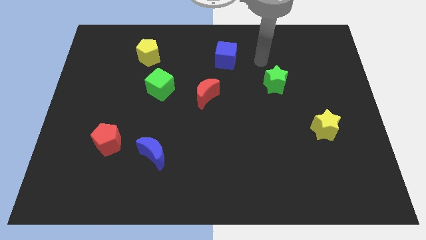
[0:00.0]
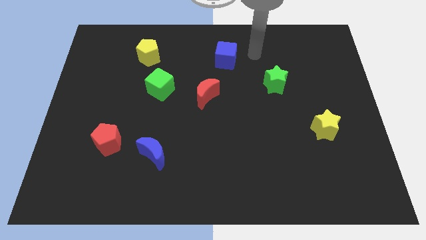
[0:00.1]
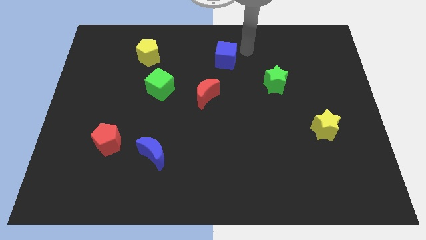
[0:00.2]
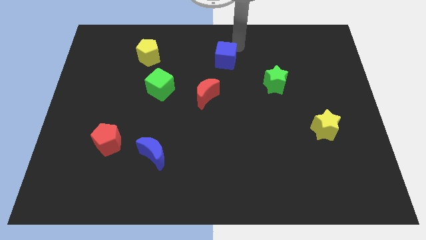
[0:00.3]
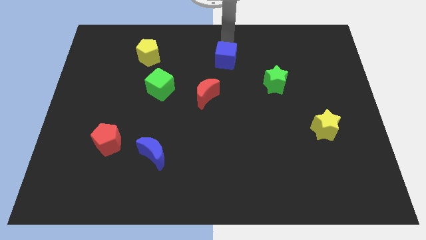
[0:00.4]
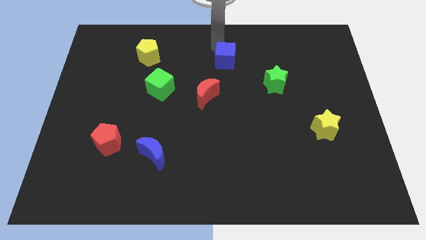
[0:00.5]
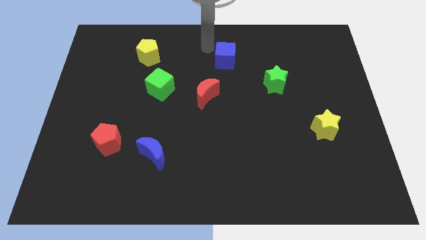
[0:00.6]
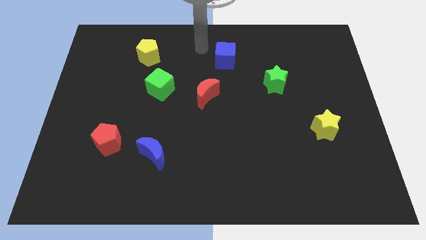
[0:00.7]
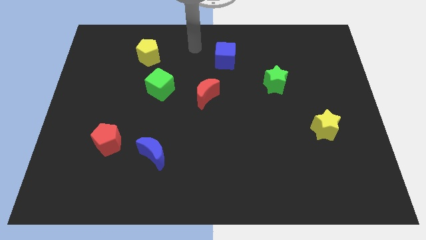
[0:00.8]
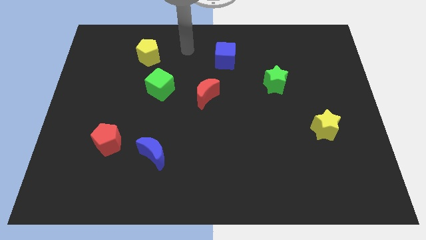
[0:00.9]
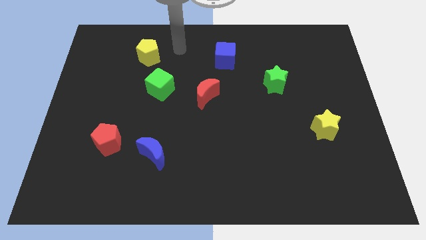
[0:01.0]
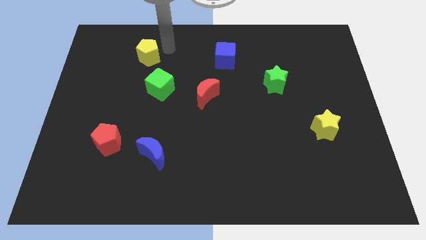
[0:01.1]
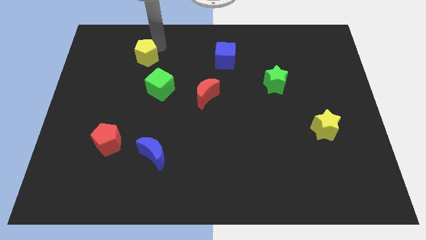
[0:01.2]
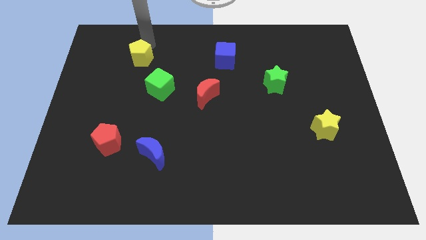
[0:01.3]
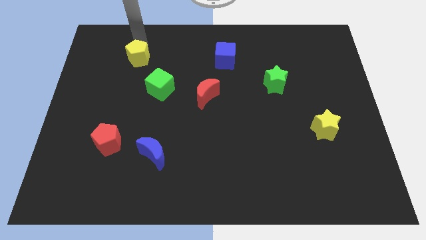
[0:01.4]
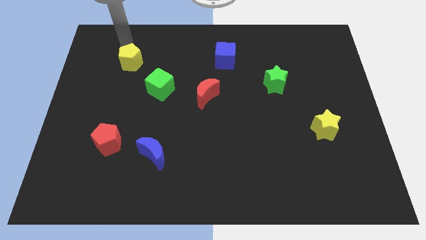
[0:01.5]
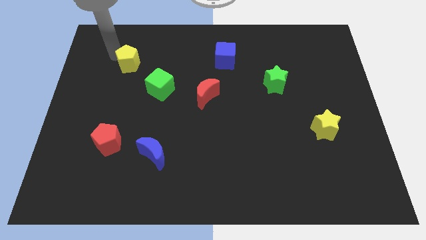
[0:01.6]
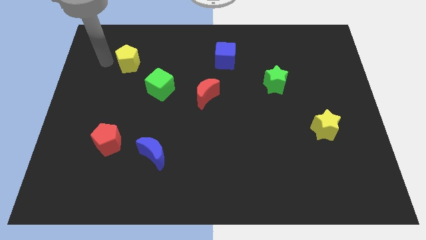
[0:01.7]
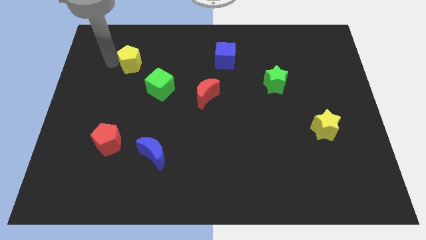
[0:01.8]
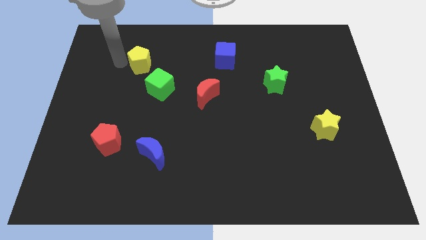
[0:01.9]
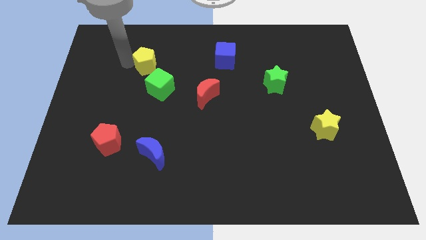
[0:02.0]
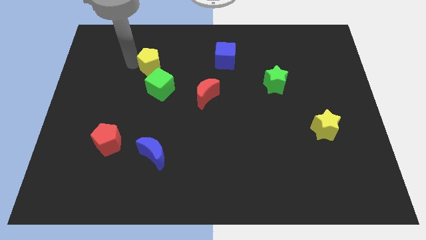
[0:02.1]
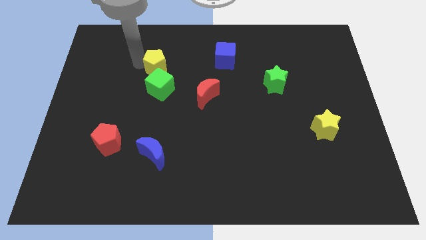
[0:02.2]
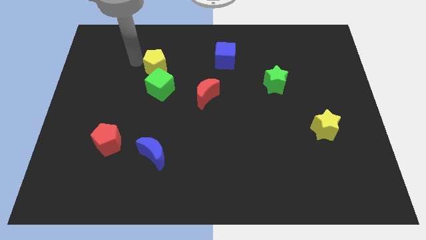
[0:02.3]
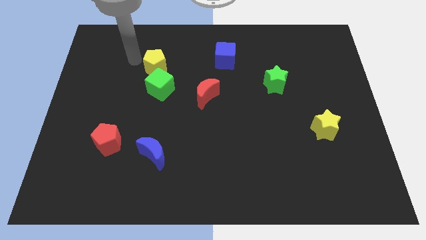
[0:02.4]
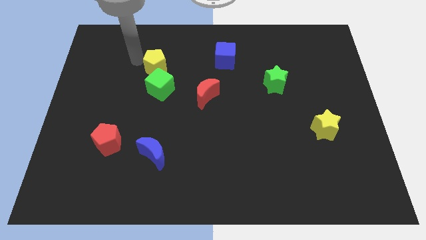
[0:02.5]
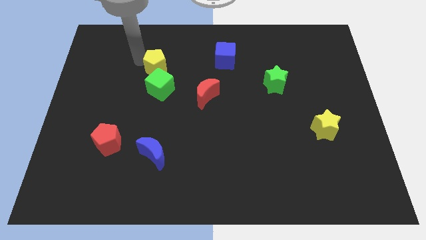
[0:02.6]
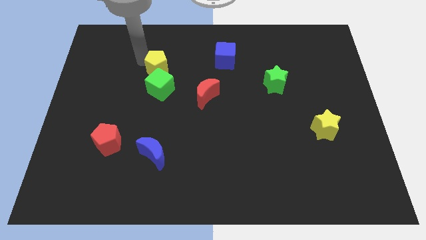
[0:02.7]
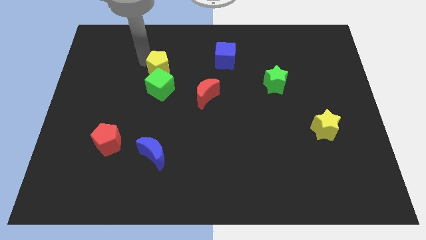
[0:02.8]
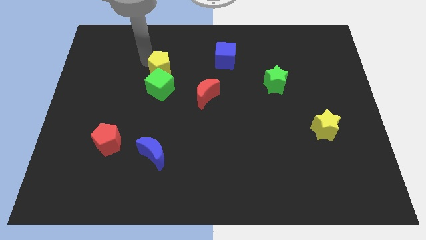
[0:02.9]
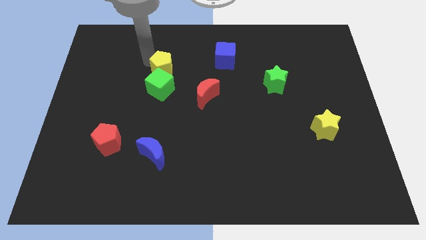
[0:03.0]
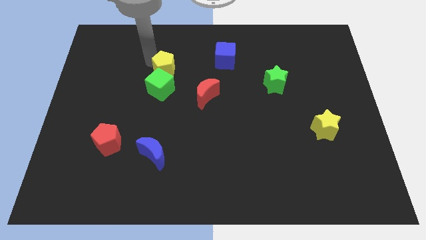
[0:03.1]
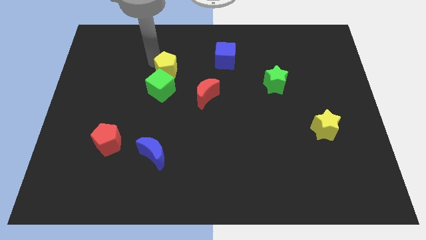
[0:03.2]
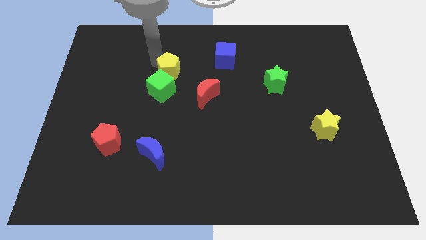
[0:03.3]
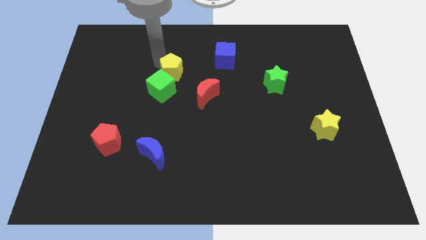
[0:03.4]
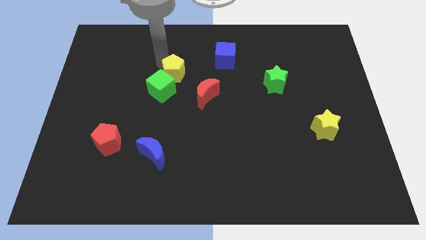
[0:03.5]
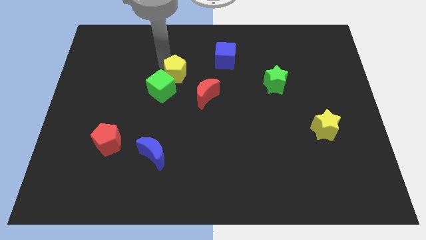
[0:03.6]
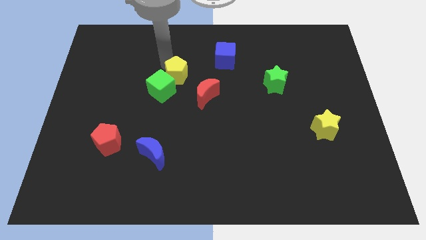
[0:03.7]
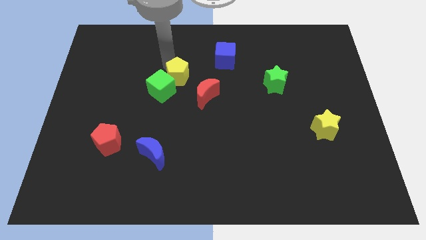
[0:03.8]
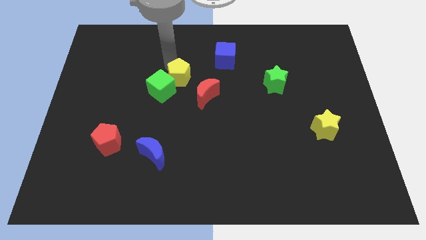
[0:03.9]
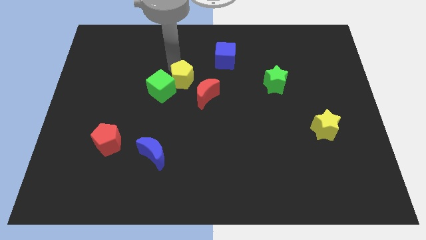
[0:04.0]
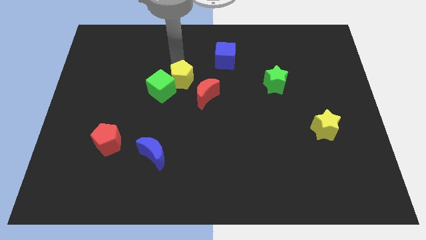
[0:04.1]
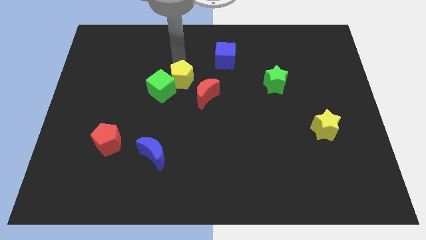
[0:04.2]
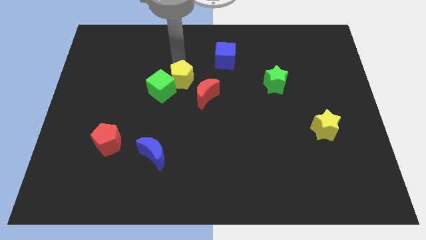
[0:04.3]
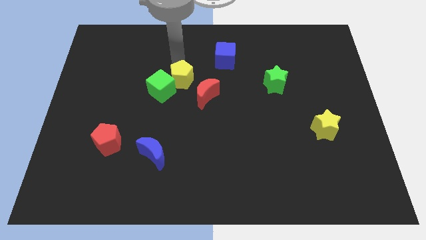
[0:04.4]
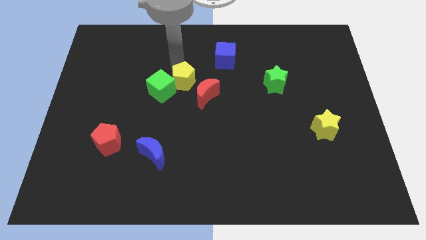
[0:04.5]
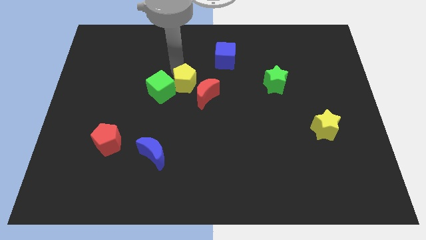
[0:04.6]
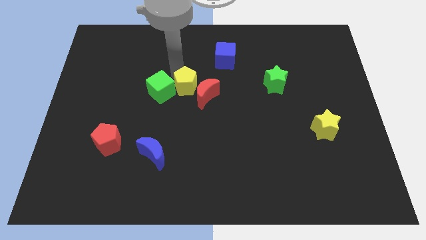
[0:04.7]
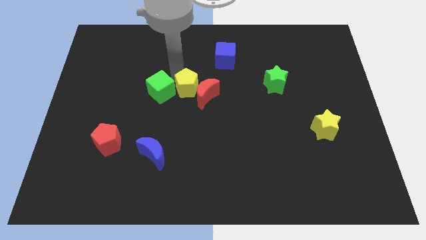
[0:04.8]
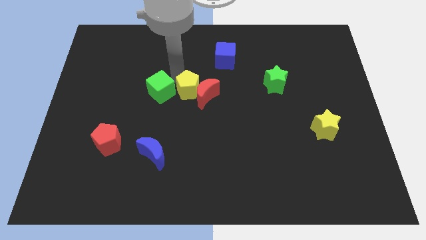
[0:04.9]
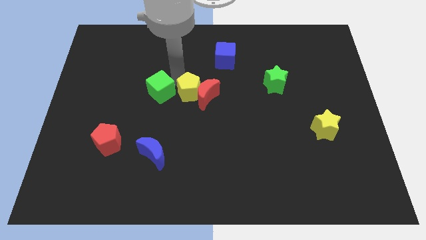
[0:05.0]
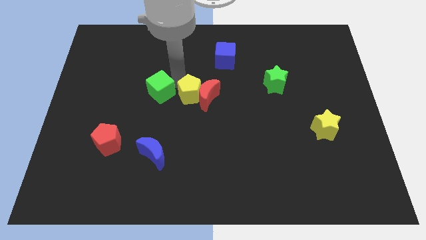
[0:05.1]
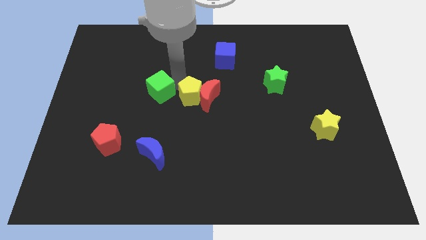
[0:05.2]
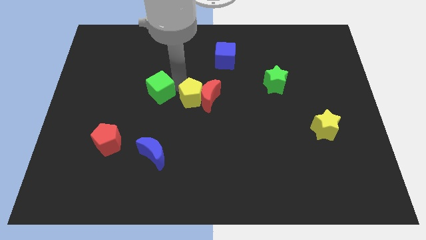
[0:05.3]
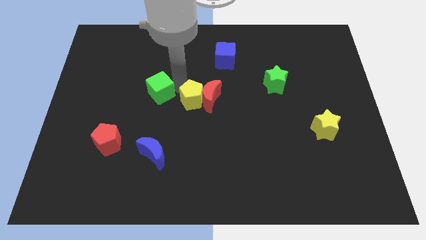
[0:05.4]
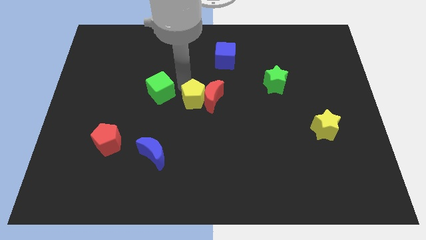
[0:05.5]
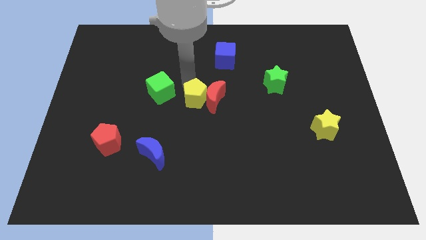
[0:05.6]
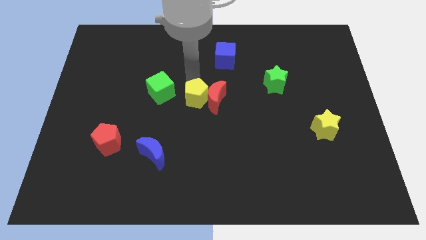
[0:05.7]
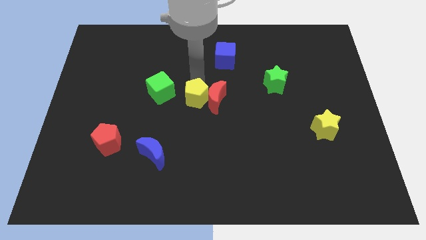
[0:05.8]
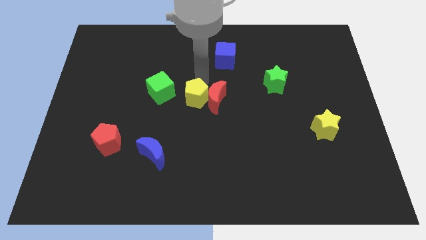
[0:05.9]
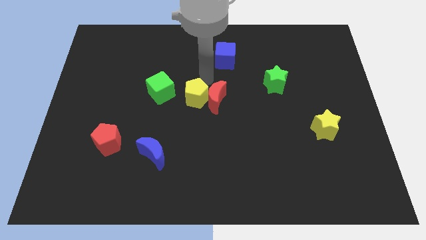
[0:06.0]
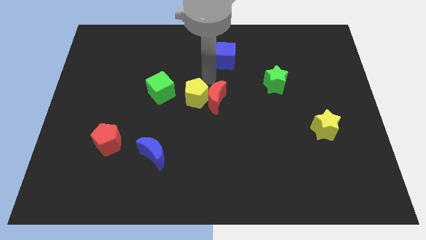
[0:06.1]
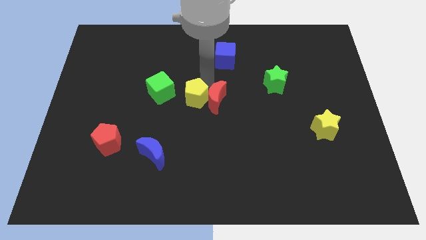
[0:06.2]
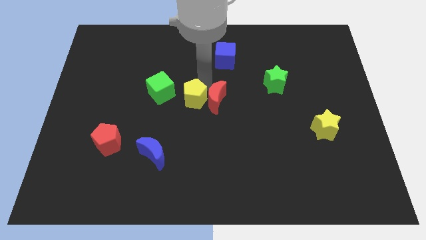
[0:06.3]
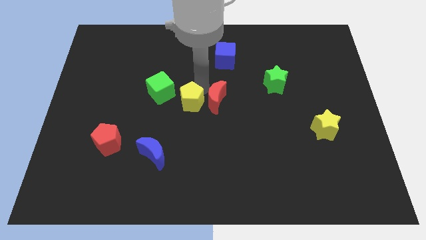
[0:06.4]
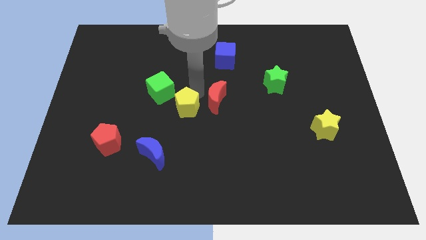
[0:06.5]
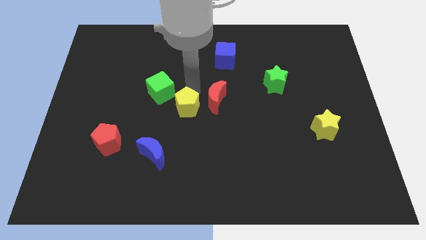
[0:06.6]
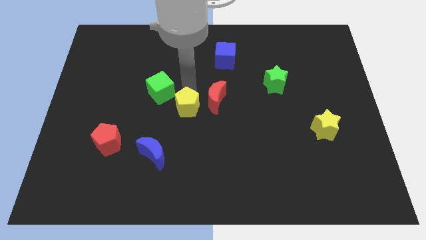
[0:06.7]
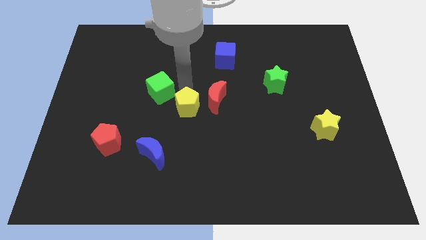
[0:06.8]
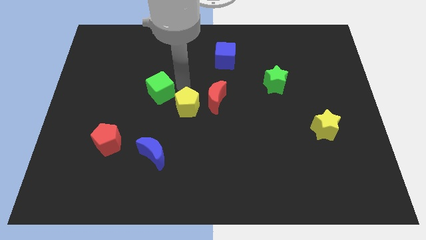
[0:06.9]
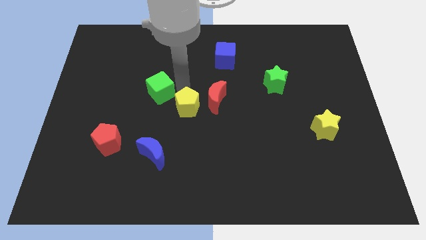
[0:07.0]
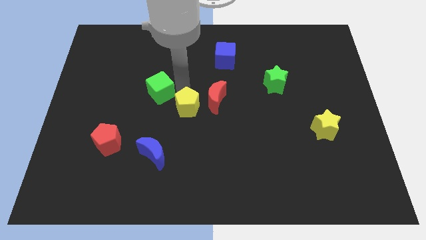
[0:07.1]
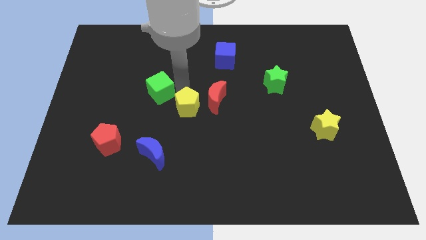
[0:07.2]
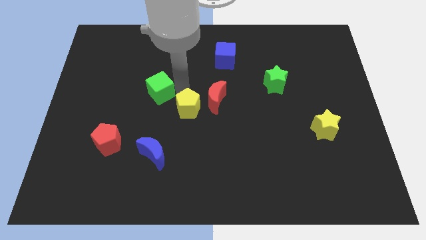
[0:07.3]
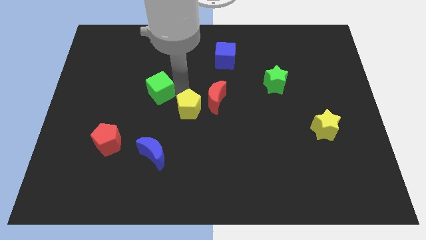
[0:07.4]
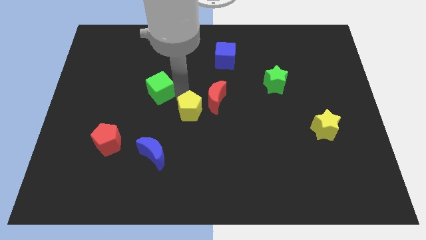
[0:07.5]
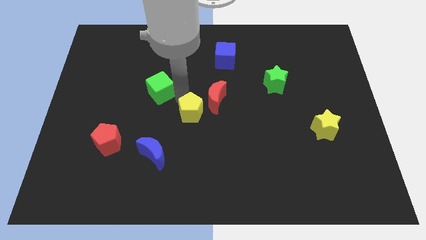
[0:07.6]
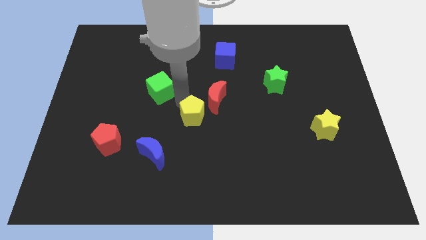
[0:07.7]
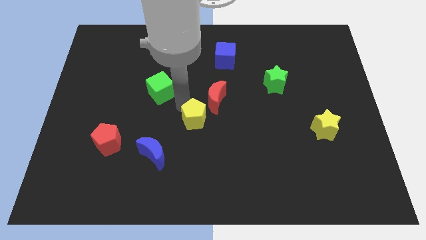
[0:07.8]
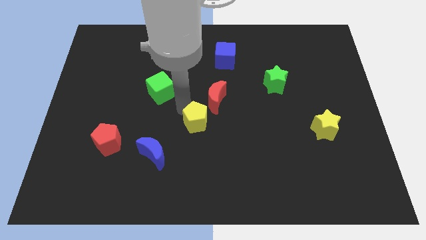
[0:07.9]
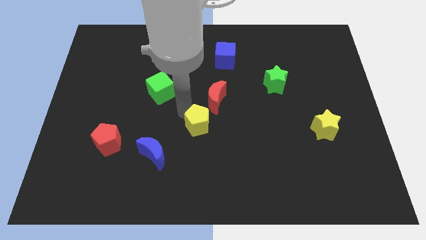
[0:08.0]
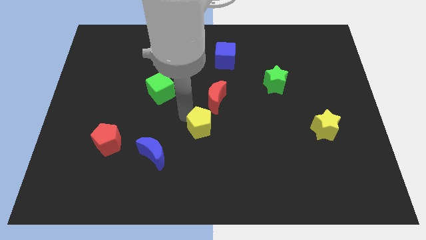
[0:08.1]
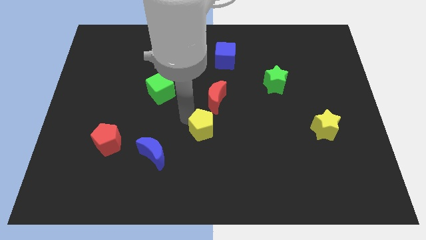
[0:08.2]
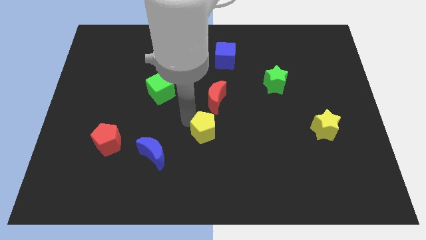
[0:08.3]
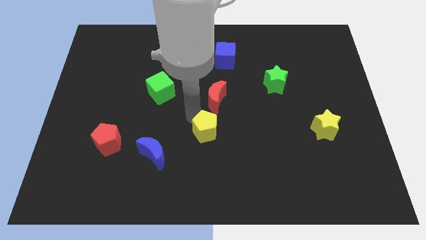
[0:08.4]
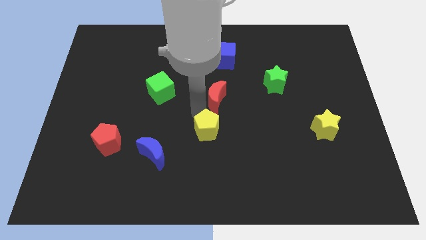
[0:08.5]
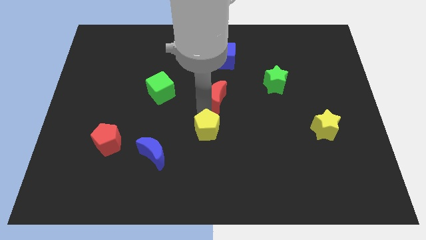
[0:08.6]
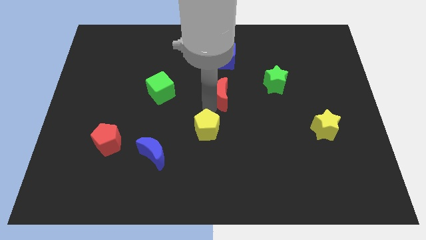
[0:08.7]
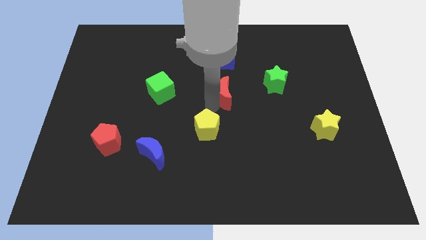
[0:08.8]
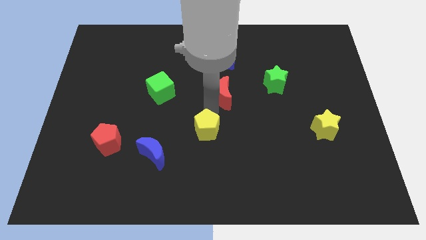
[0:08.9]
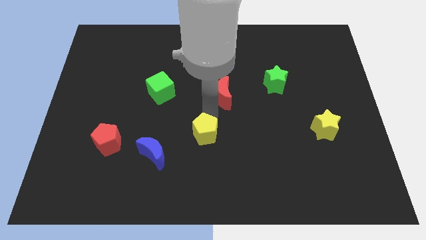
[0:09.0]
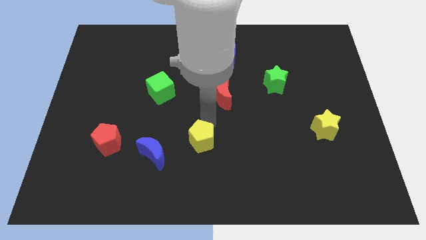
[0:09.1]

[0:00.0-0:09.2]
move the yellow pentagon to the right of the blue moon
